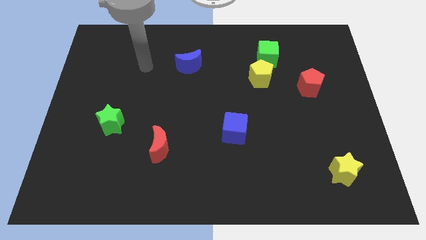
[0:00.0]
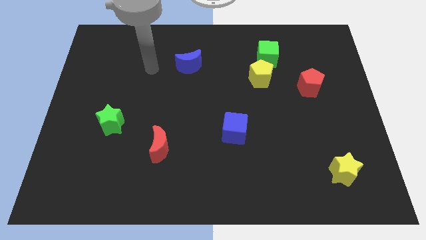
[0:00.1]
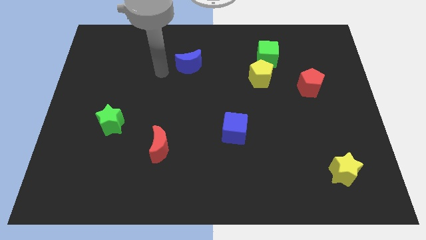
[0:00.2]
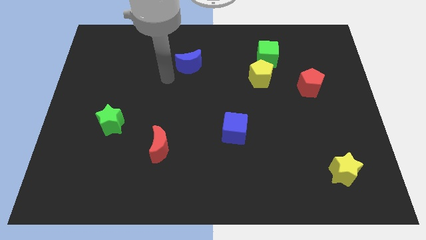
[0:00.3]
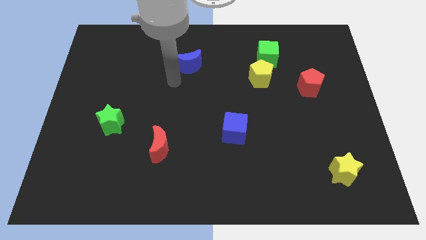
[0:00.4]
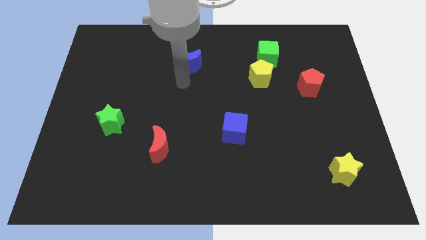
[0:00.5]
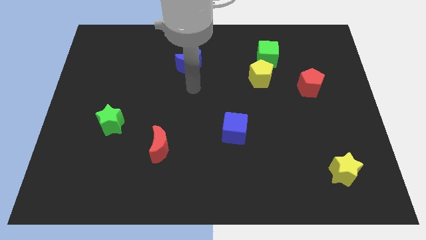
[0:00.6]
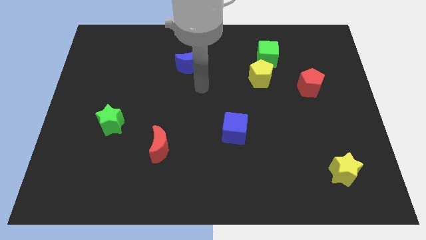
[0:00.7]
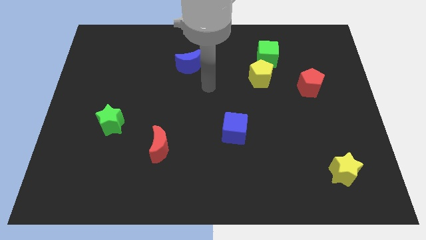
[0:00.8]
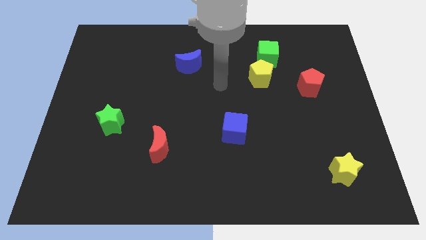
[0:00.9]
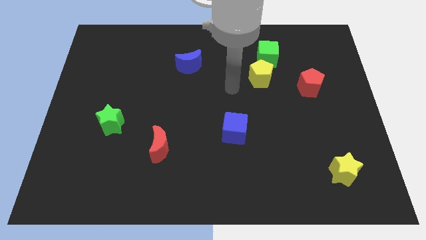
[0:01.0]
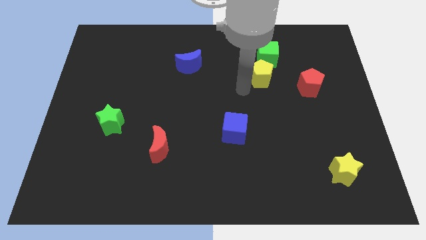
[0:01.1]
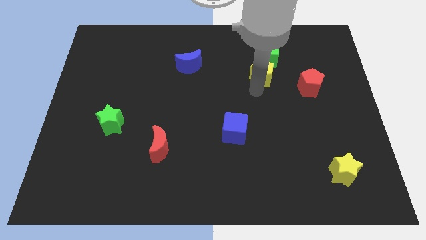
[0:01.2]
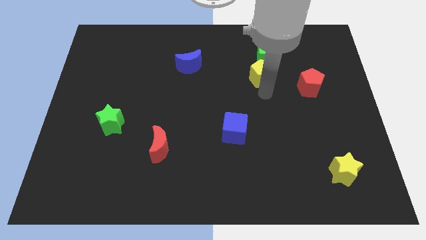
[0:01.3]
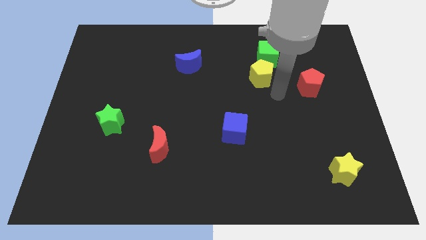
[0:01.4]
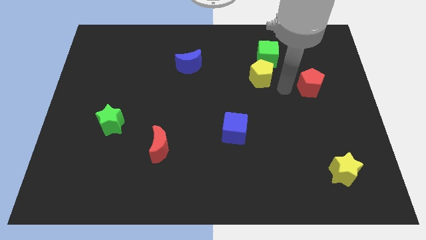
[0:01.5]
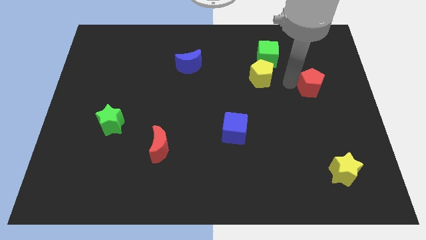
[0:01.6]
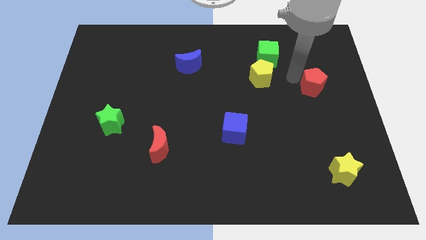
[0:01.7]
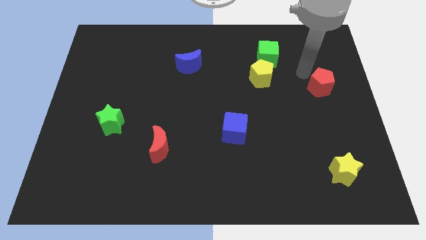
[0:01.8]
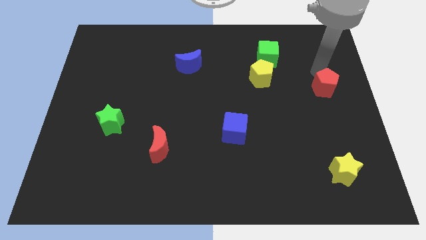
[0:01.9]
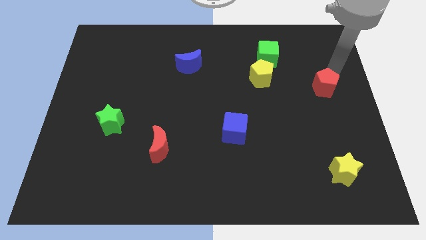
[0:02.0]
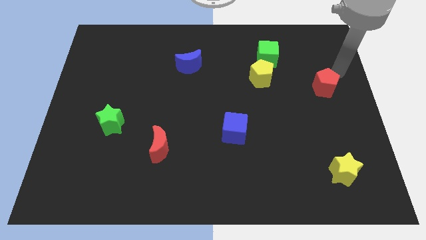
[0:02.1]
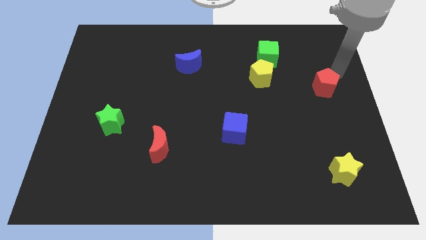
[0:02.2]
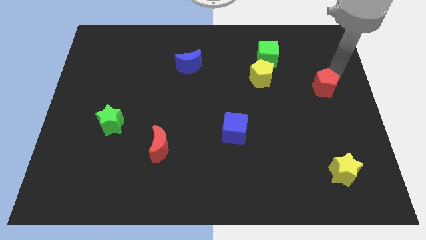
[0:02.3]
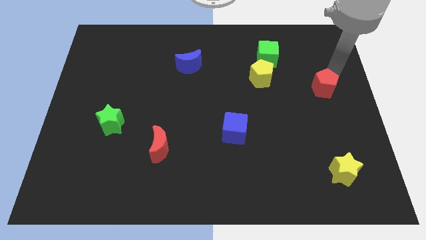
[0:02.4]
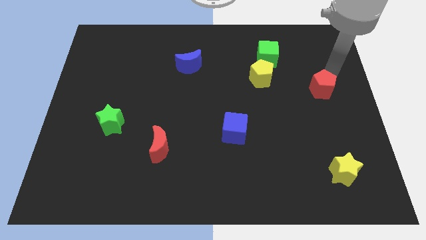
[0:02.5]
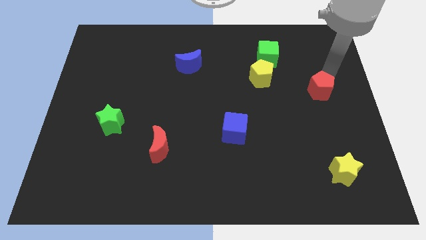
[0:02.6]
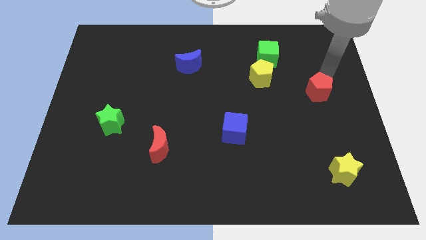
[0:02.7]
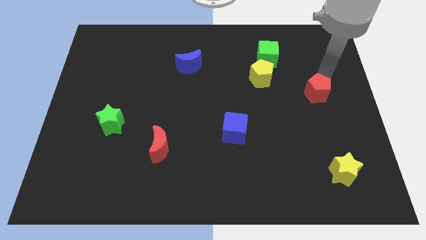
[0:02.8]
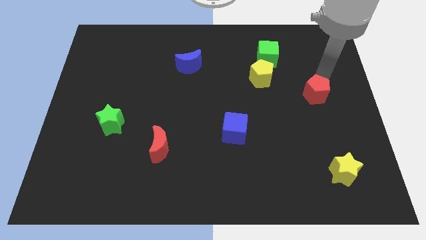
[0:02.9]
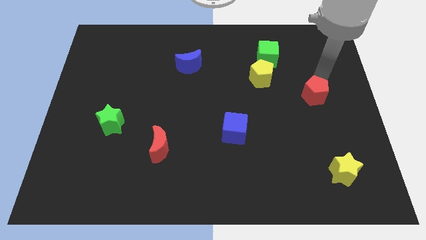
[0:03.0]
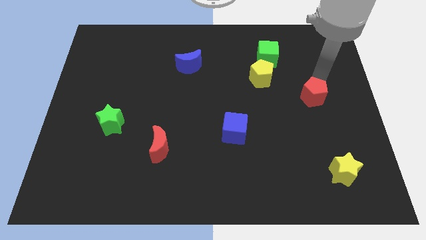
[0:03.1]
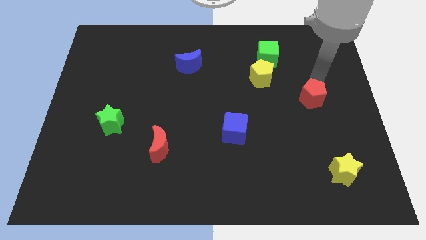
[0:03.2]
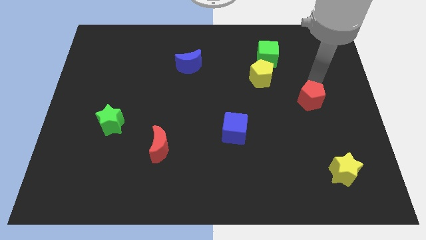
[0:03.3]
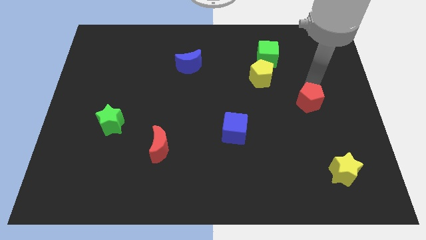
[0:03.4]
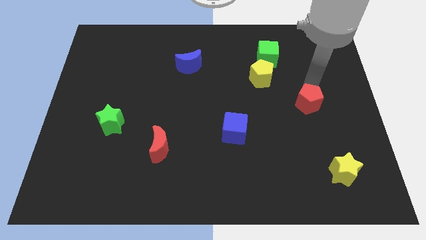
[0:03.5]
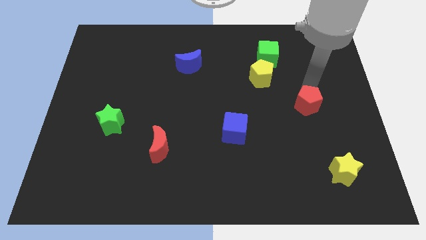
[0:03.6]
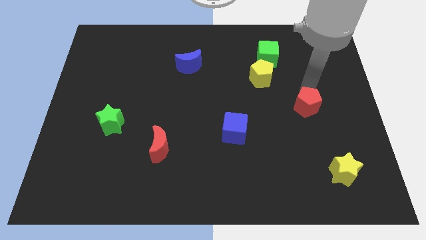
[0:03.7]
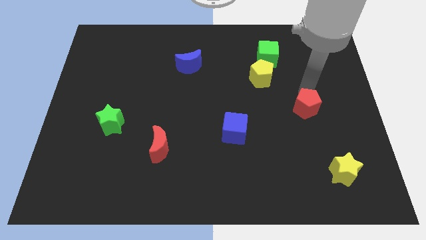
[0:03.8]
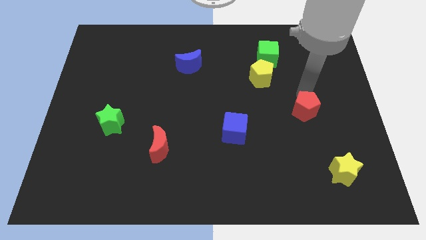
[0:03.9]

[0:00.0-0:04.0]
push the red pentagon a little bit downwards

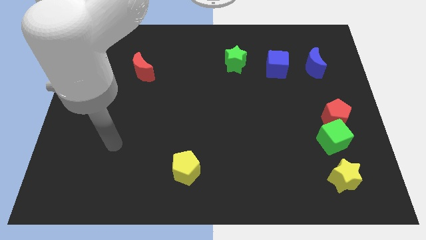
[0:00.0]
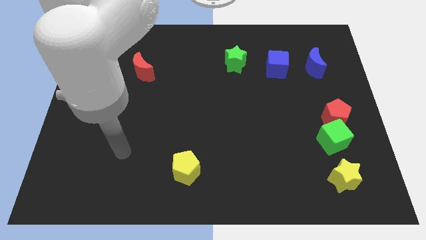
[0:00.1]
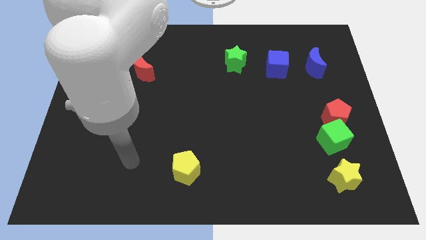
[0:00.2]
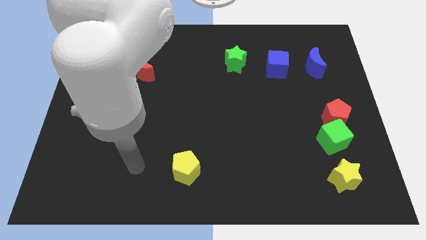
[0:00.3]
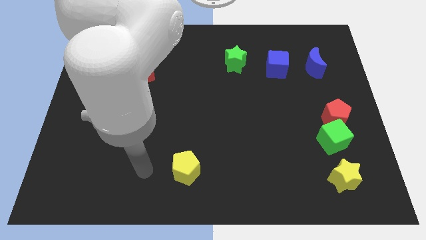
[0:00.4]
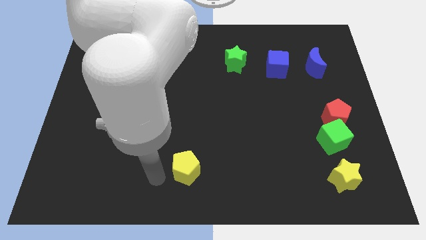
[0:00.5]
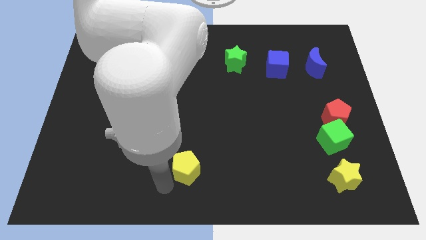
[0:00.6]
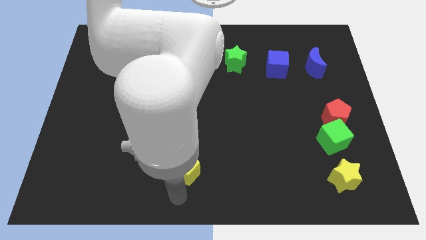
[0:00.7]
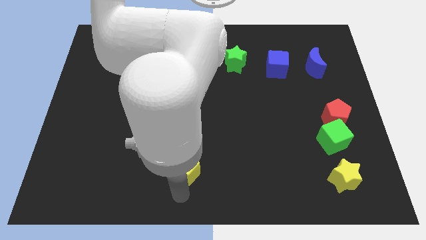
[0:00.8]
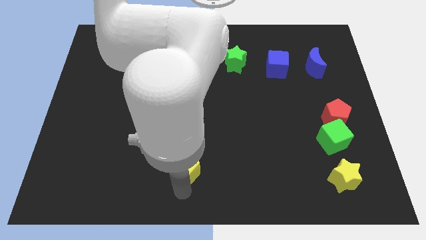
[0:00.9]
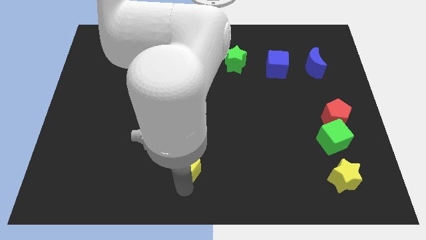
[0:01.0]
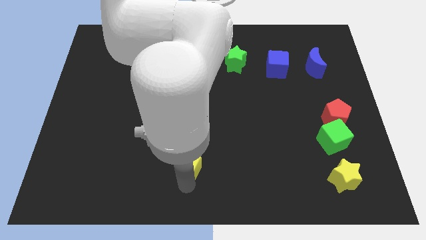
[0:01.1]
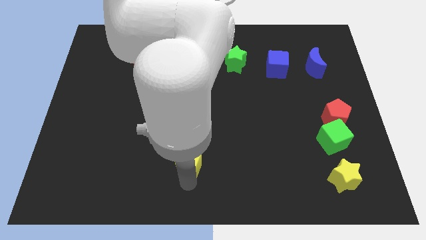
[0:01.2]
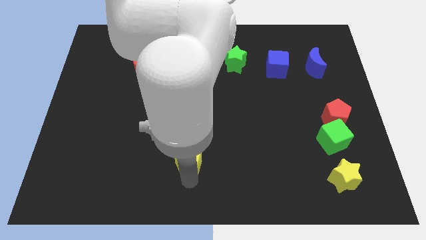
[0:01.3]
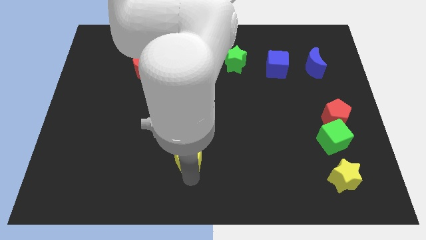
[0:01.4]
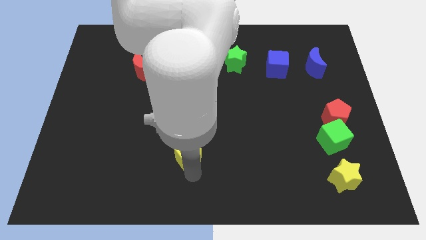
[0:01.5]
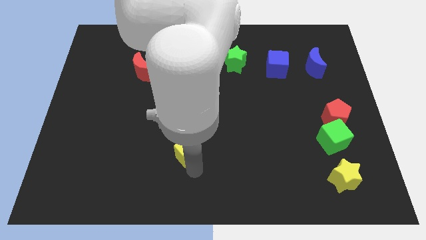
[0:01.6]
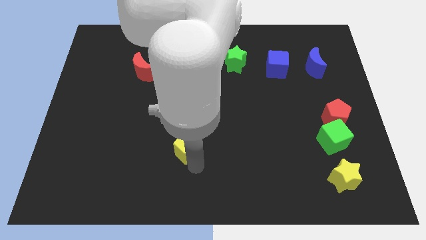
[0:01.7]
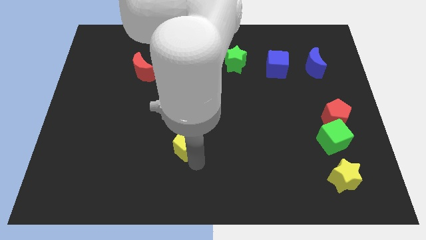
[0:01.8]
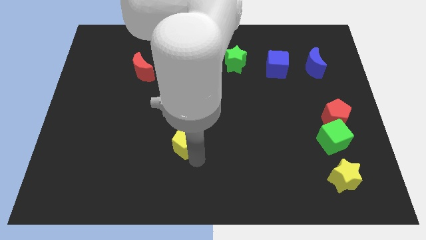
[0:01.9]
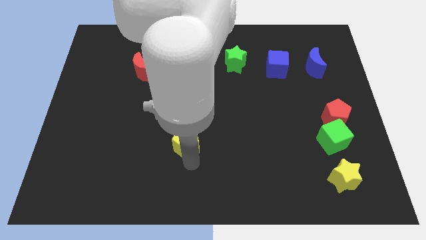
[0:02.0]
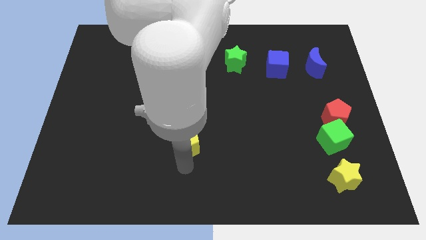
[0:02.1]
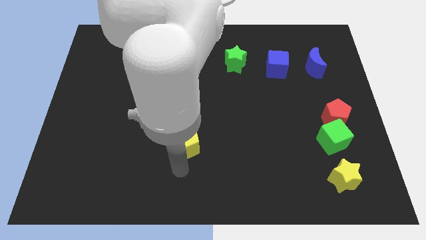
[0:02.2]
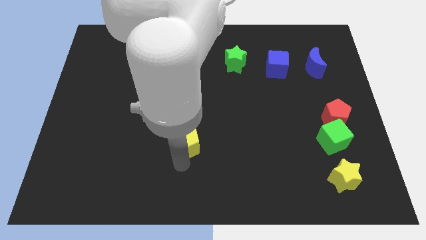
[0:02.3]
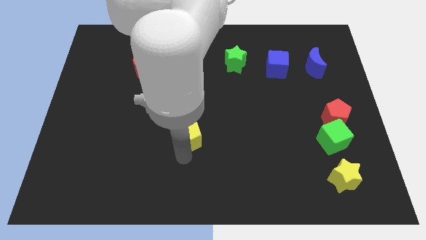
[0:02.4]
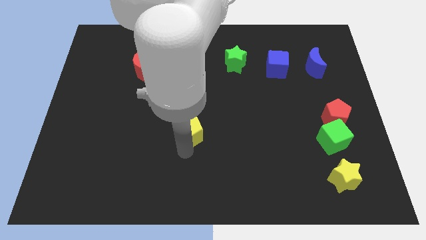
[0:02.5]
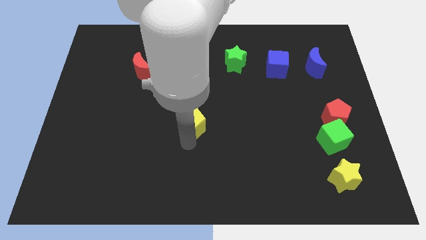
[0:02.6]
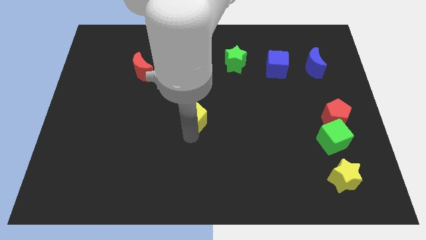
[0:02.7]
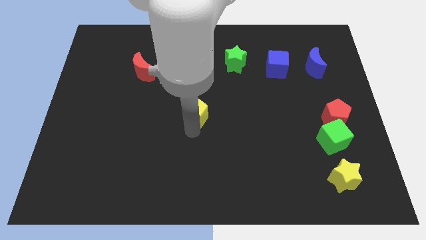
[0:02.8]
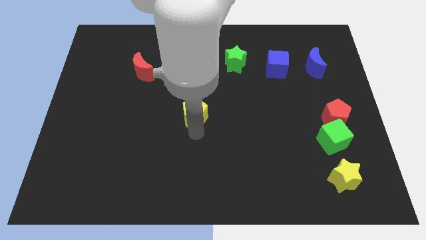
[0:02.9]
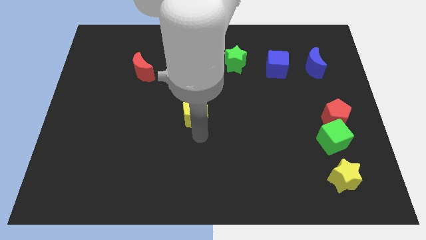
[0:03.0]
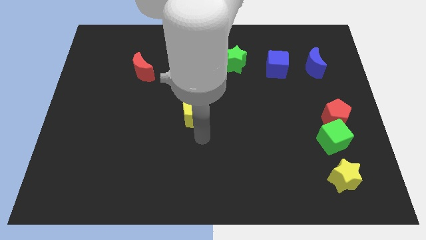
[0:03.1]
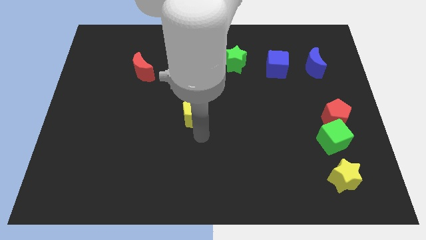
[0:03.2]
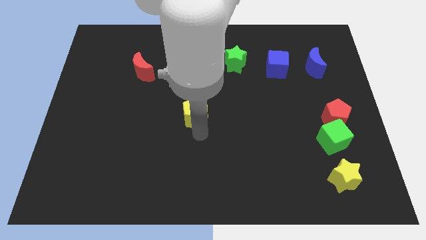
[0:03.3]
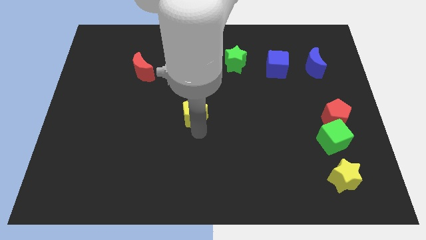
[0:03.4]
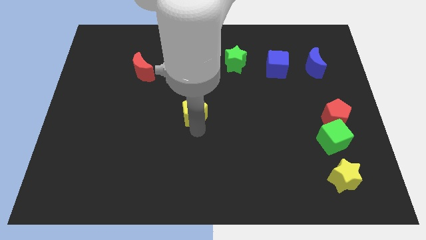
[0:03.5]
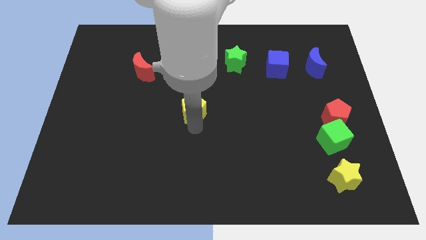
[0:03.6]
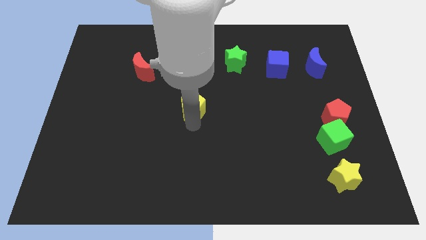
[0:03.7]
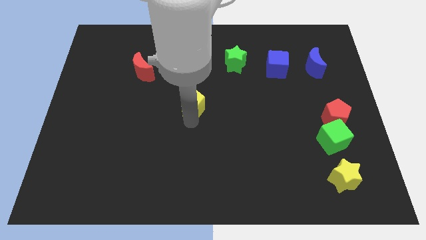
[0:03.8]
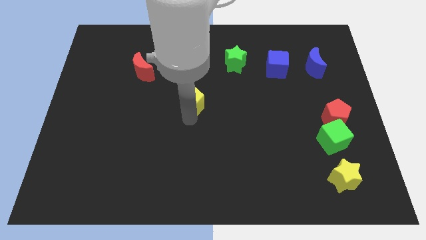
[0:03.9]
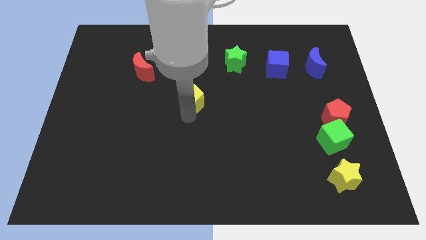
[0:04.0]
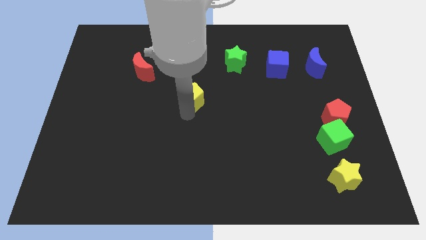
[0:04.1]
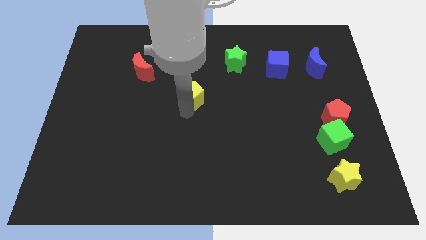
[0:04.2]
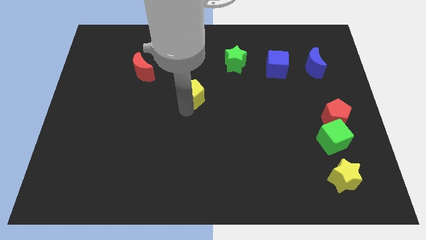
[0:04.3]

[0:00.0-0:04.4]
push the yellow pentagon upwards
